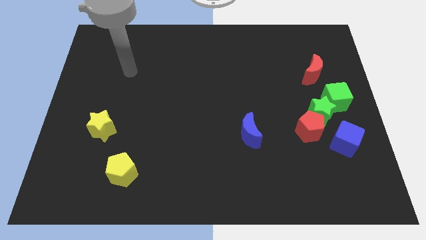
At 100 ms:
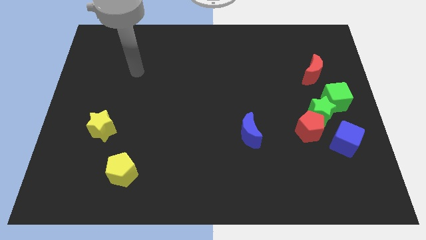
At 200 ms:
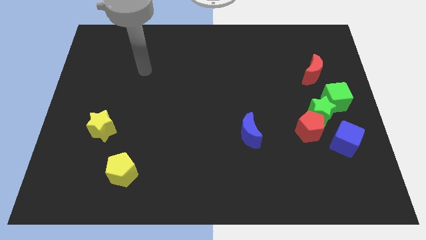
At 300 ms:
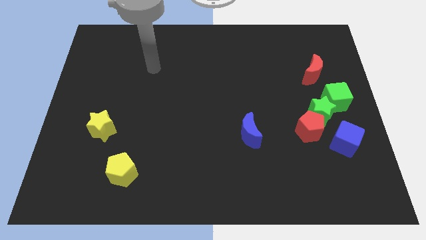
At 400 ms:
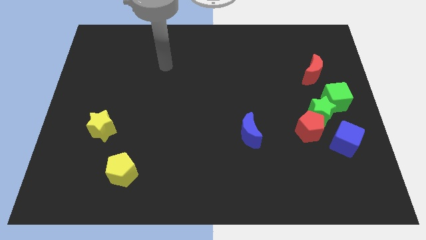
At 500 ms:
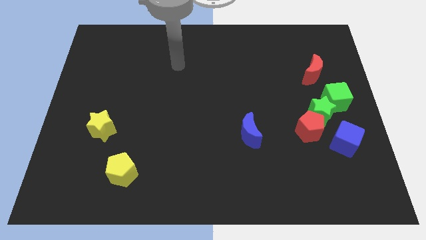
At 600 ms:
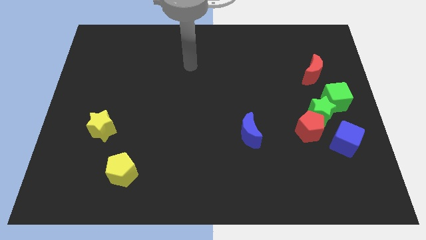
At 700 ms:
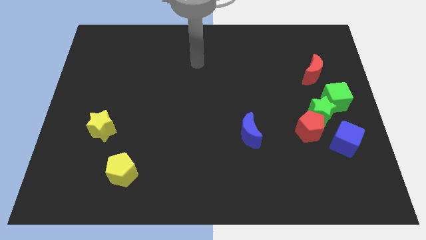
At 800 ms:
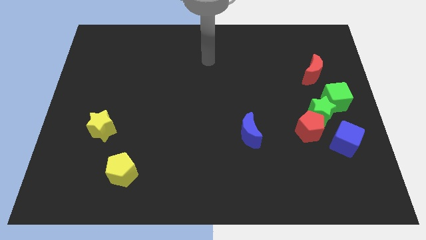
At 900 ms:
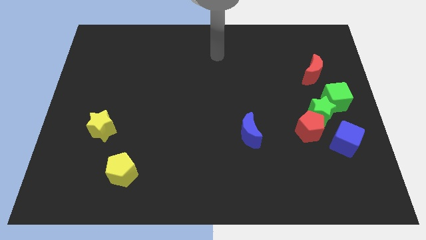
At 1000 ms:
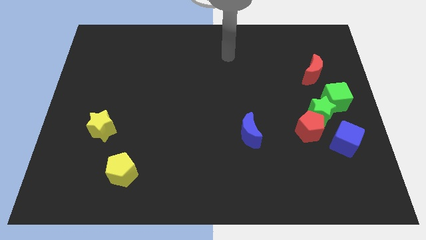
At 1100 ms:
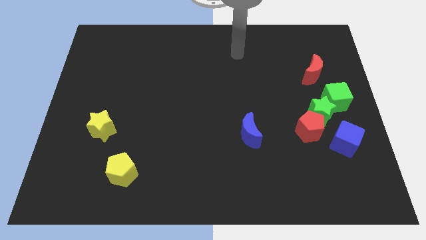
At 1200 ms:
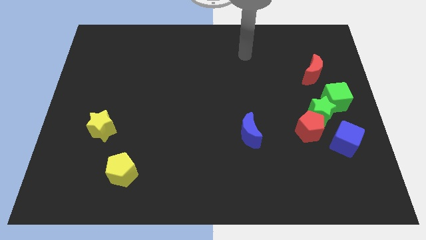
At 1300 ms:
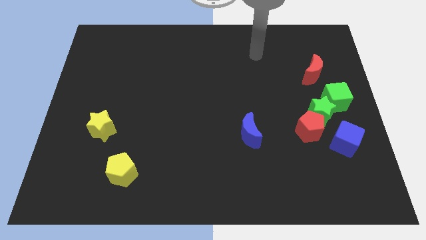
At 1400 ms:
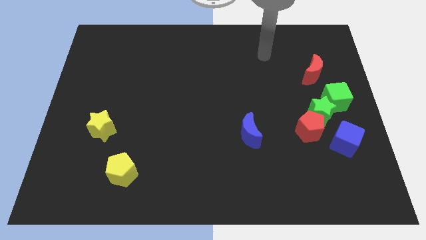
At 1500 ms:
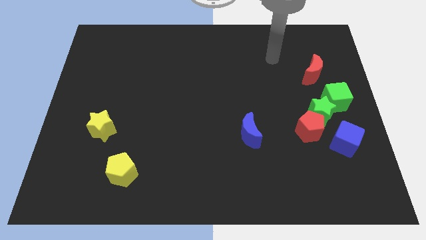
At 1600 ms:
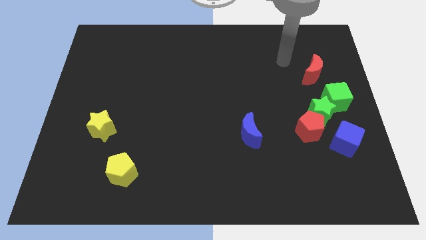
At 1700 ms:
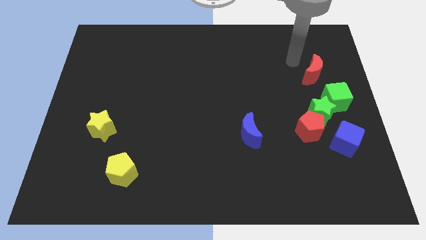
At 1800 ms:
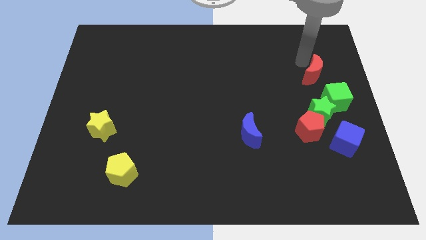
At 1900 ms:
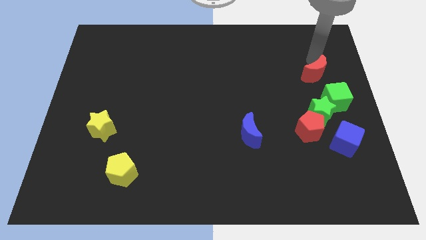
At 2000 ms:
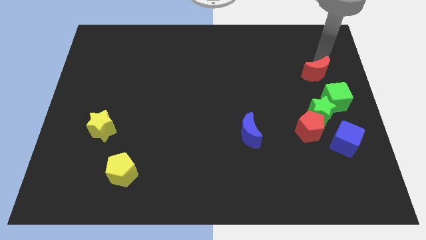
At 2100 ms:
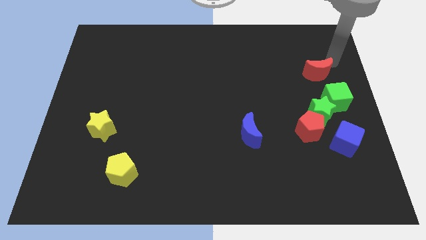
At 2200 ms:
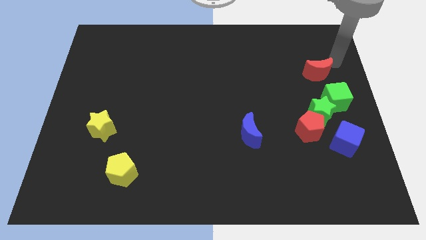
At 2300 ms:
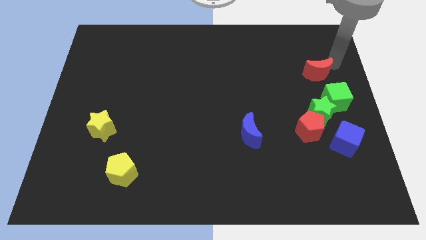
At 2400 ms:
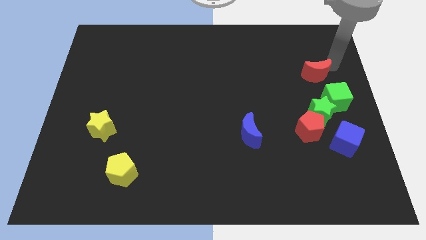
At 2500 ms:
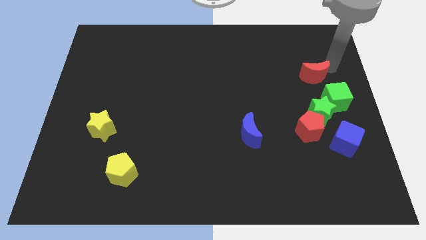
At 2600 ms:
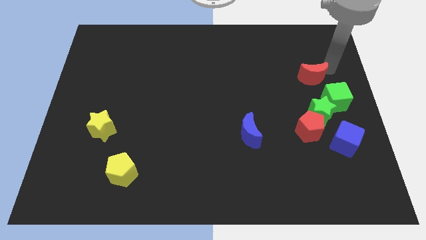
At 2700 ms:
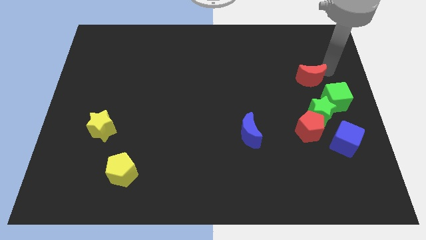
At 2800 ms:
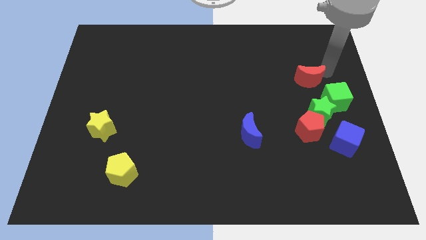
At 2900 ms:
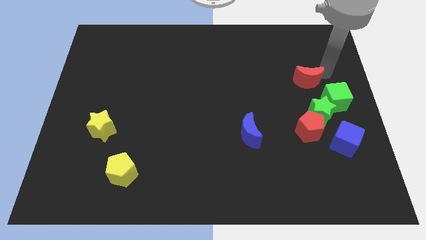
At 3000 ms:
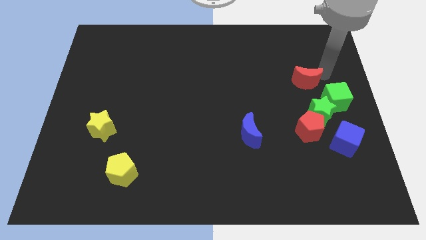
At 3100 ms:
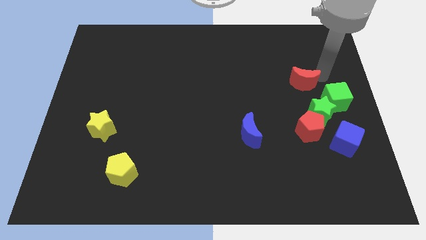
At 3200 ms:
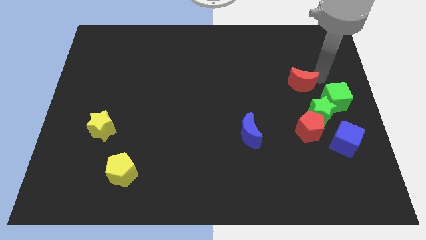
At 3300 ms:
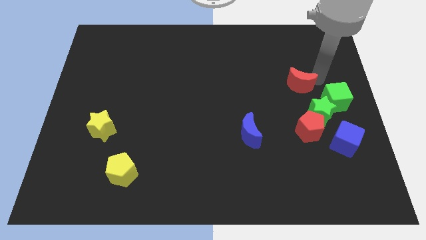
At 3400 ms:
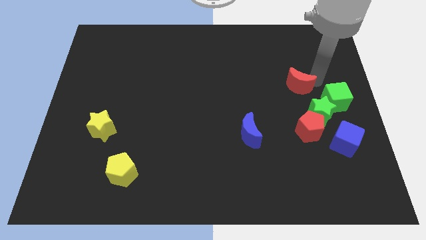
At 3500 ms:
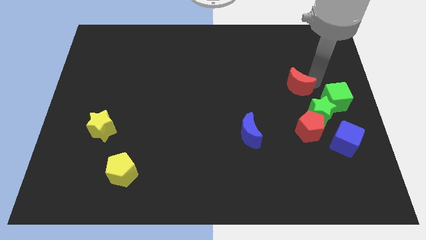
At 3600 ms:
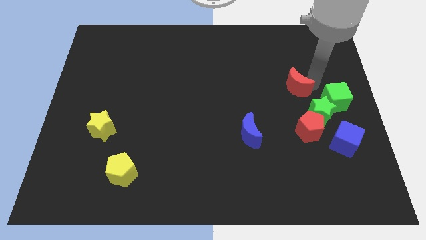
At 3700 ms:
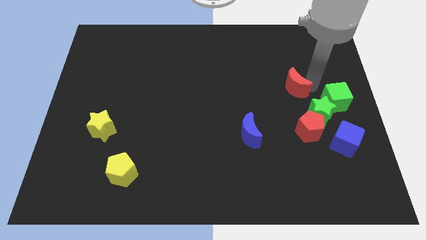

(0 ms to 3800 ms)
slide the red moon a little diagonally downwards and left

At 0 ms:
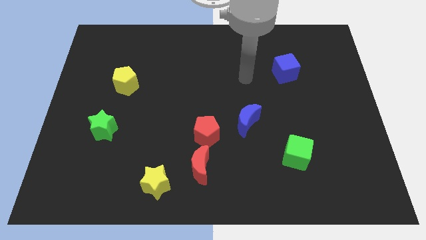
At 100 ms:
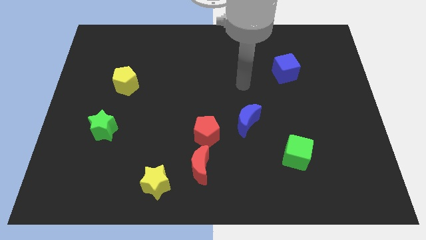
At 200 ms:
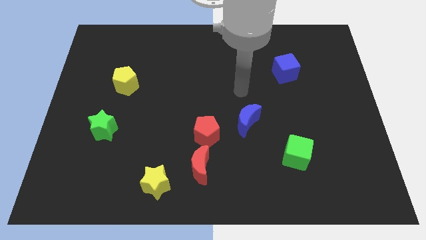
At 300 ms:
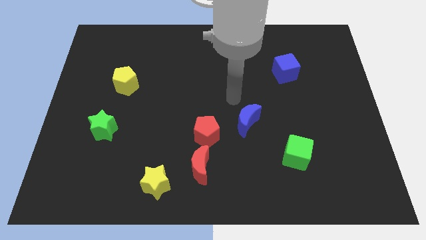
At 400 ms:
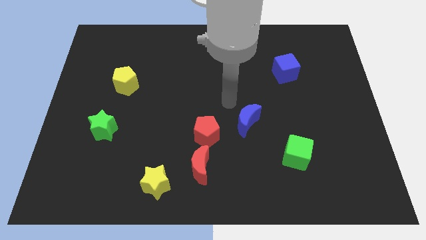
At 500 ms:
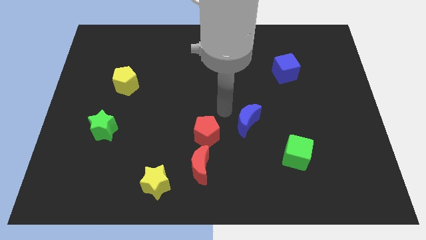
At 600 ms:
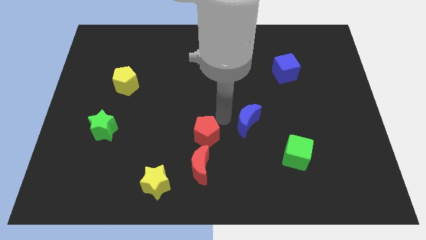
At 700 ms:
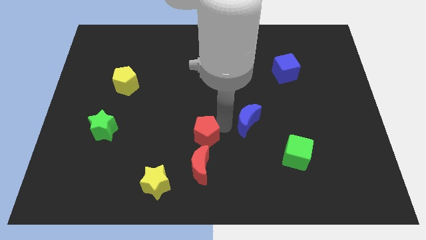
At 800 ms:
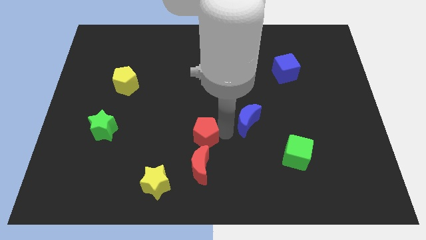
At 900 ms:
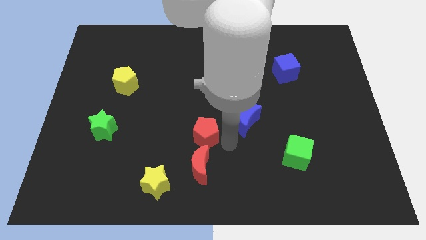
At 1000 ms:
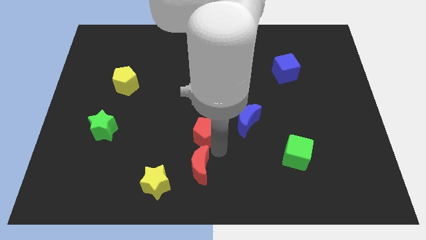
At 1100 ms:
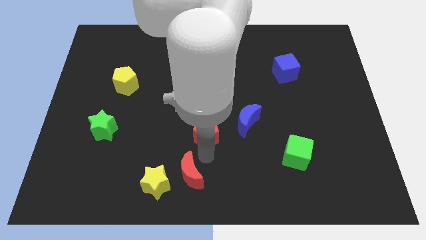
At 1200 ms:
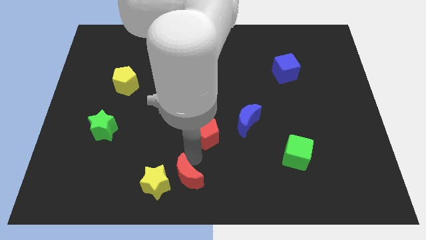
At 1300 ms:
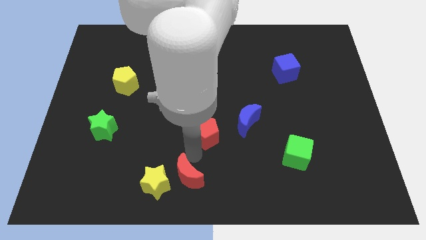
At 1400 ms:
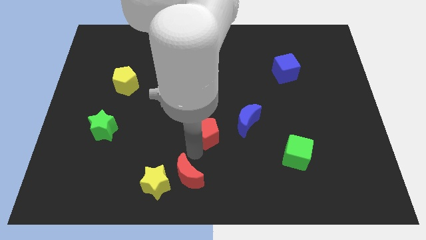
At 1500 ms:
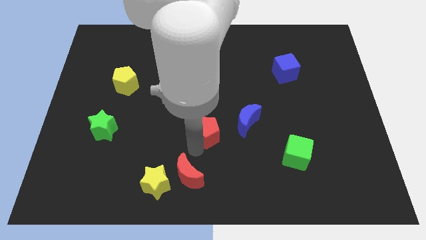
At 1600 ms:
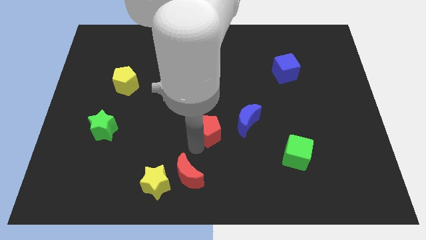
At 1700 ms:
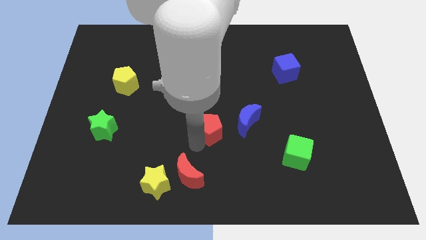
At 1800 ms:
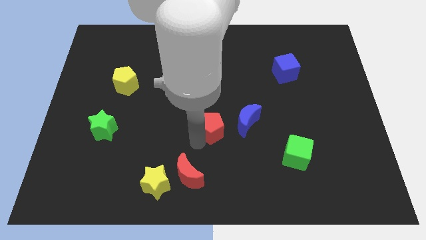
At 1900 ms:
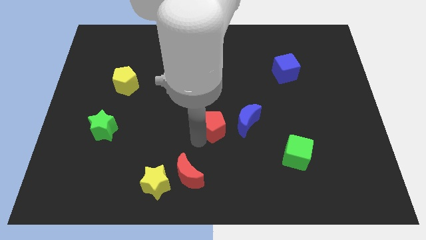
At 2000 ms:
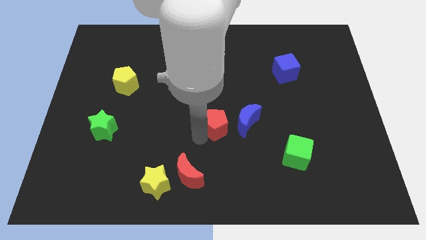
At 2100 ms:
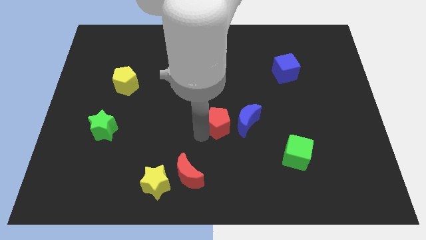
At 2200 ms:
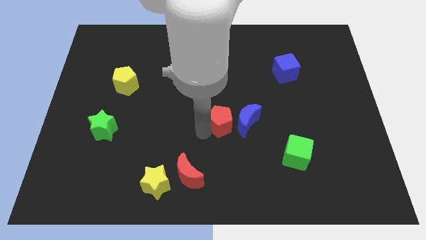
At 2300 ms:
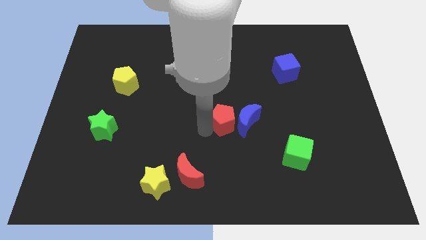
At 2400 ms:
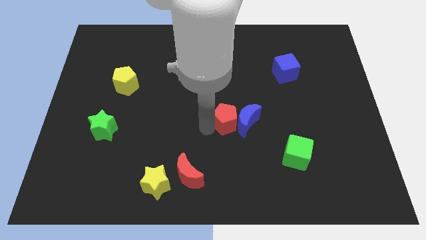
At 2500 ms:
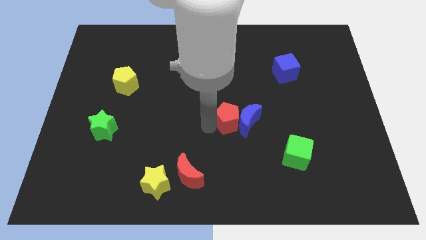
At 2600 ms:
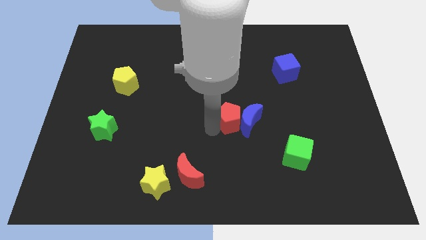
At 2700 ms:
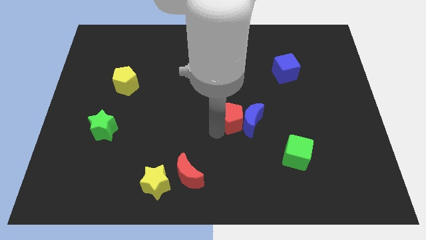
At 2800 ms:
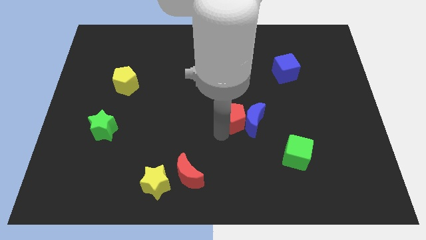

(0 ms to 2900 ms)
push the red pentagon a bit up and then right

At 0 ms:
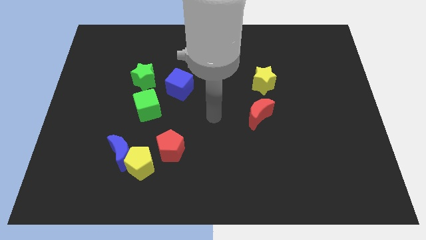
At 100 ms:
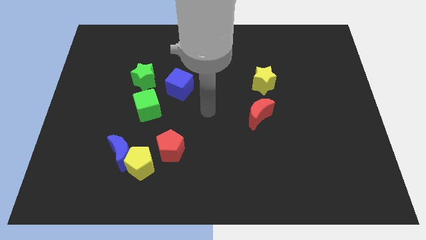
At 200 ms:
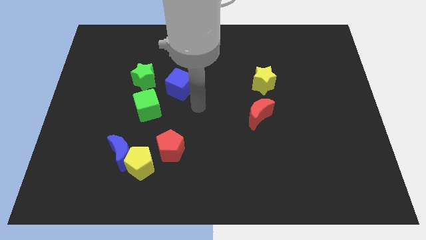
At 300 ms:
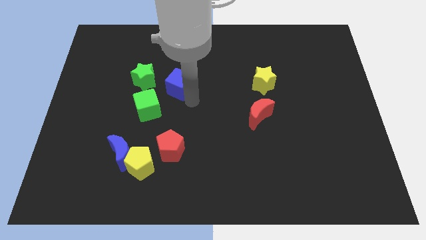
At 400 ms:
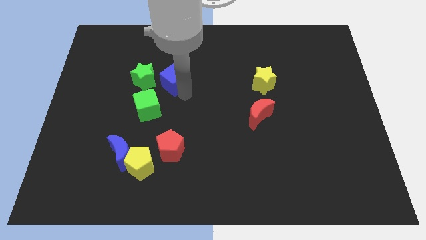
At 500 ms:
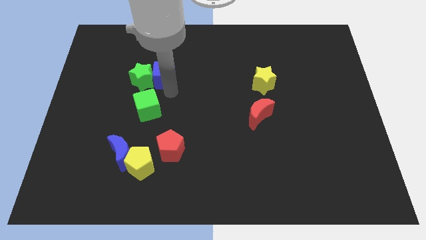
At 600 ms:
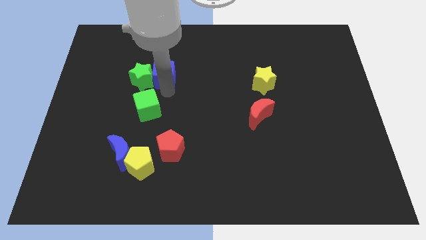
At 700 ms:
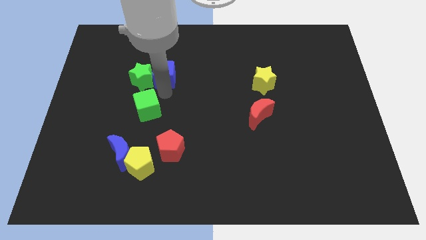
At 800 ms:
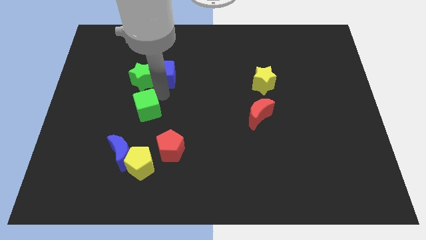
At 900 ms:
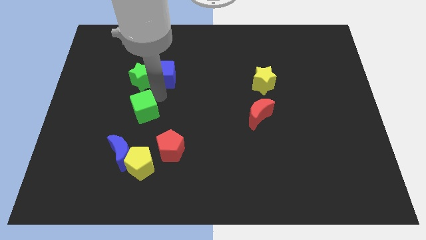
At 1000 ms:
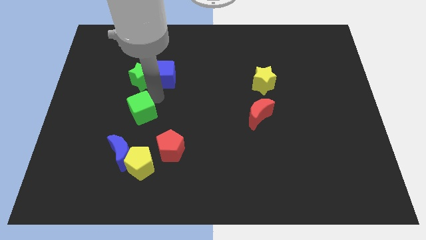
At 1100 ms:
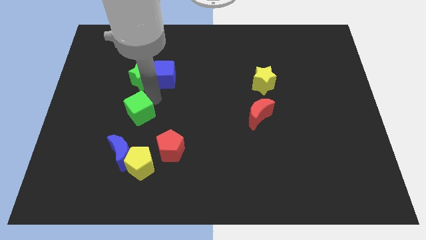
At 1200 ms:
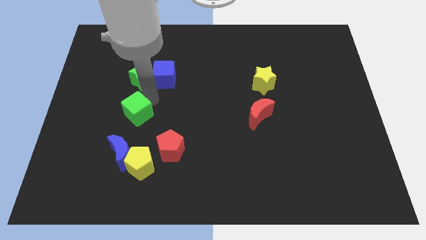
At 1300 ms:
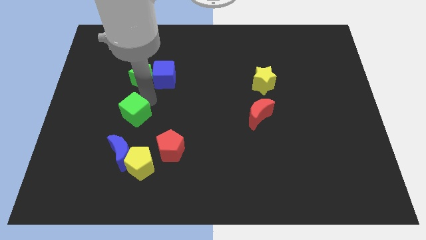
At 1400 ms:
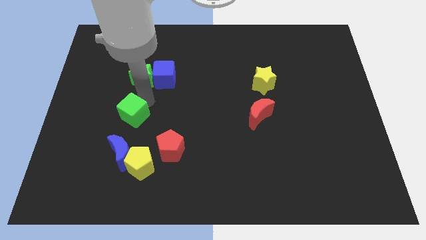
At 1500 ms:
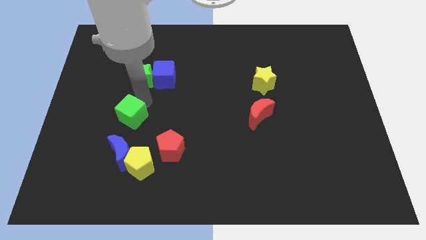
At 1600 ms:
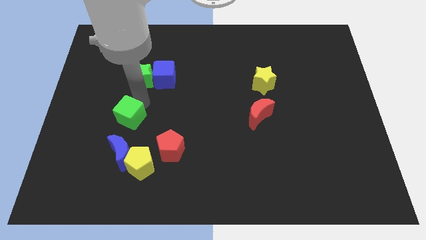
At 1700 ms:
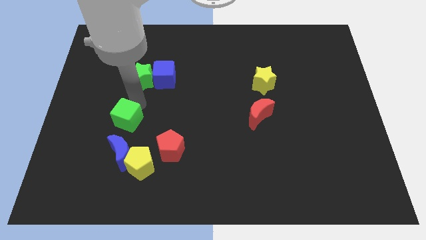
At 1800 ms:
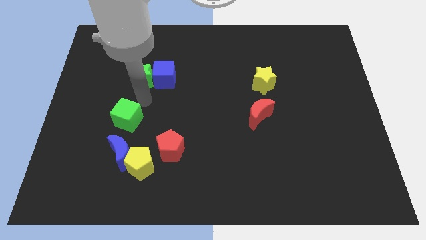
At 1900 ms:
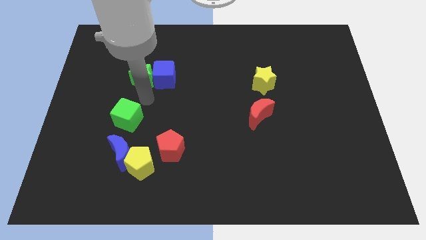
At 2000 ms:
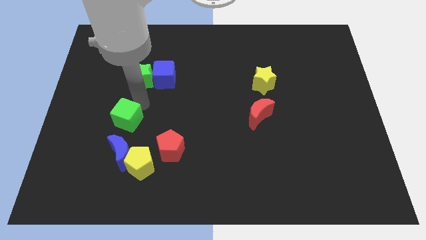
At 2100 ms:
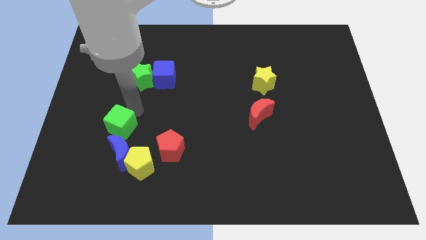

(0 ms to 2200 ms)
slightly push the green cube down and then to the left
